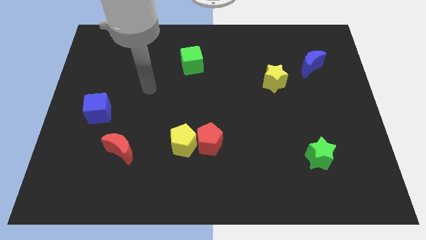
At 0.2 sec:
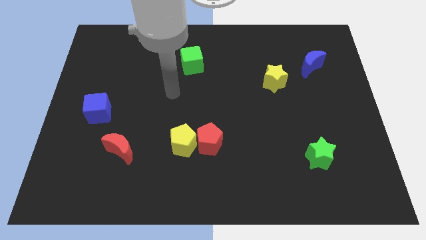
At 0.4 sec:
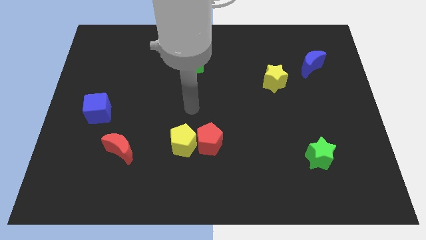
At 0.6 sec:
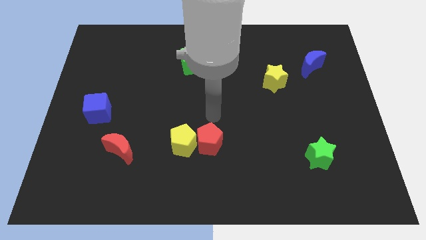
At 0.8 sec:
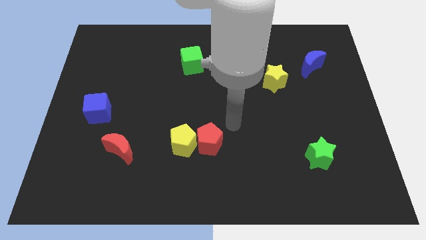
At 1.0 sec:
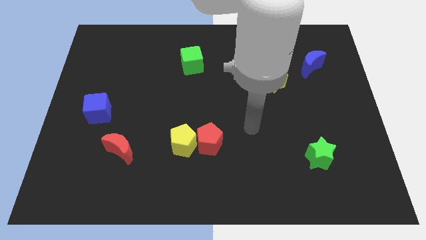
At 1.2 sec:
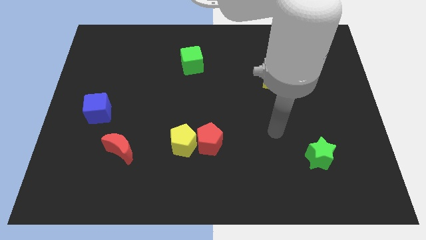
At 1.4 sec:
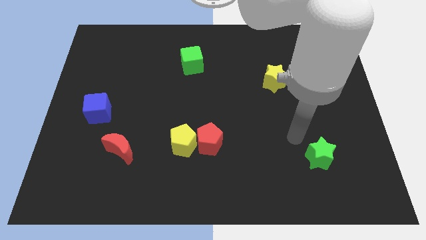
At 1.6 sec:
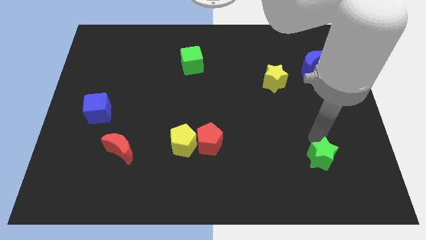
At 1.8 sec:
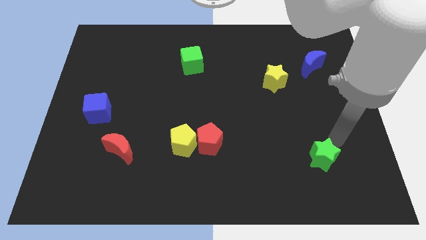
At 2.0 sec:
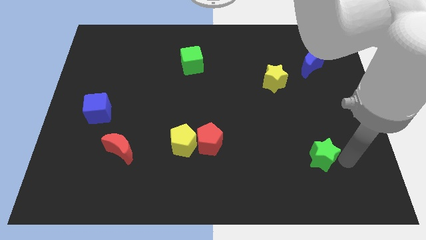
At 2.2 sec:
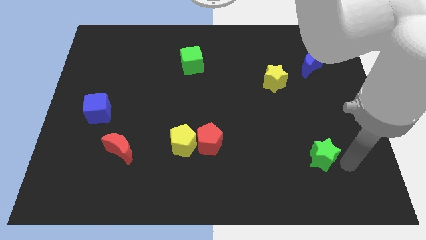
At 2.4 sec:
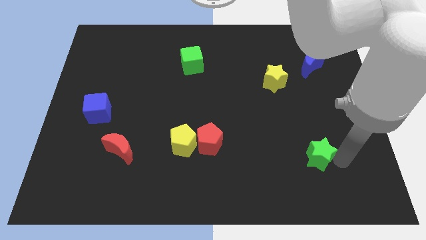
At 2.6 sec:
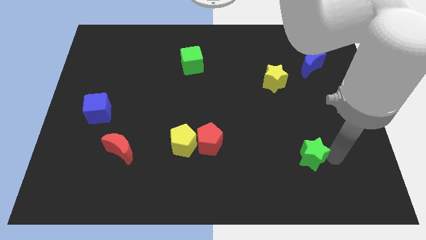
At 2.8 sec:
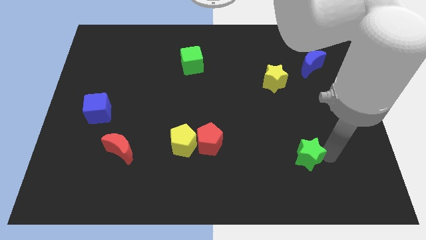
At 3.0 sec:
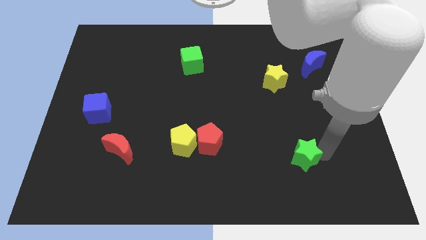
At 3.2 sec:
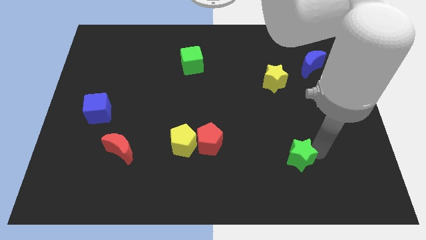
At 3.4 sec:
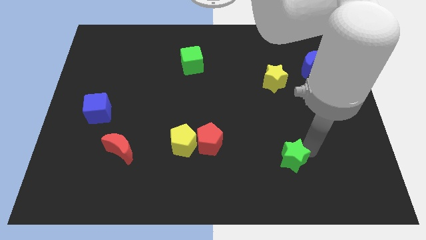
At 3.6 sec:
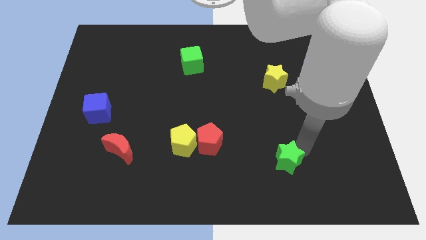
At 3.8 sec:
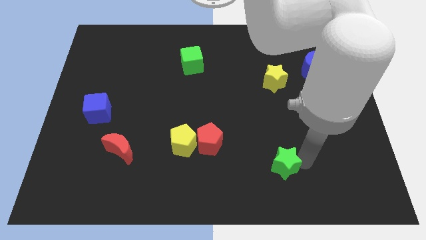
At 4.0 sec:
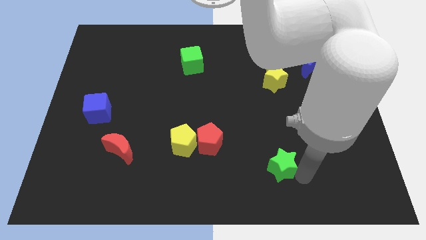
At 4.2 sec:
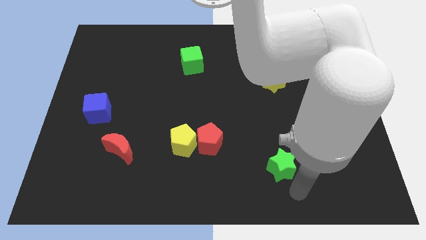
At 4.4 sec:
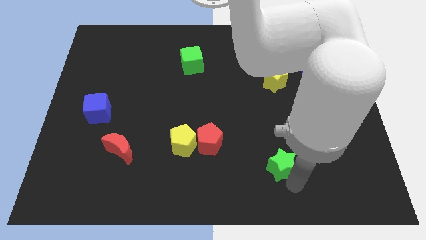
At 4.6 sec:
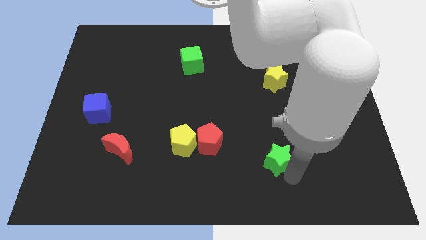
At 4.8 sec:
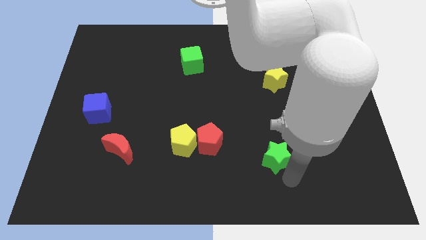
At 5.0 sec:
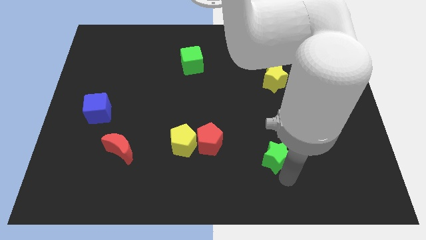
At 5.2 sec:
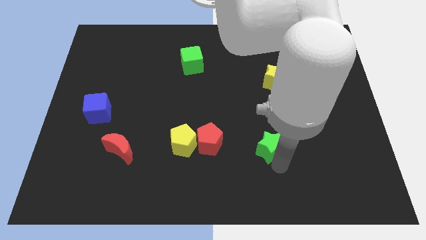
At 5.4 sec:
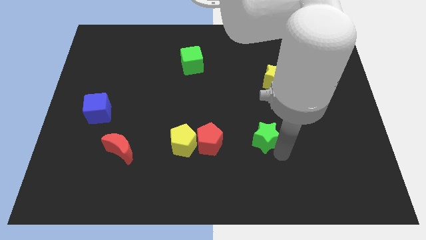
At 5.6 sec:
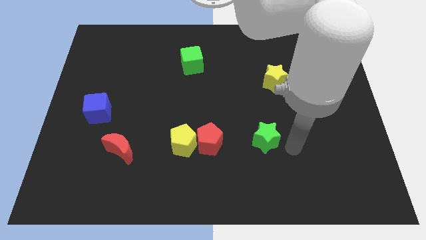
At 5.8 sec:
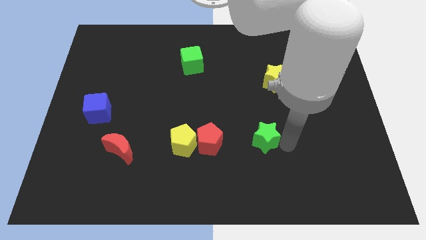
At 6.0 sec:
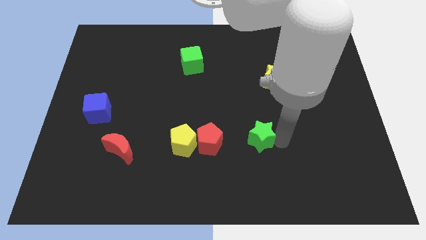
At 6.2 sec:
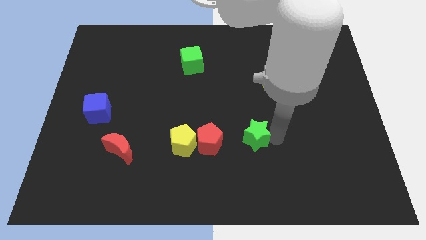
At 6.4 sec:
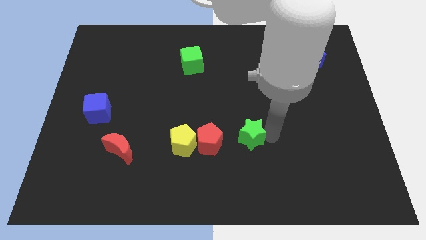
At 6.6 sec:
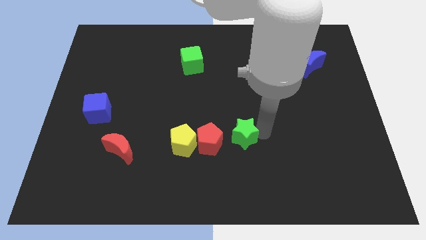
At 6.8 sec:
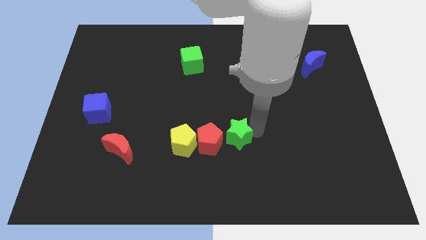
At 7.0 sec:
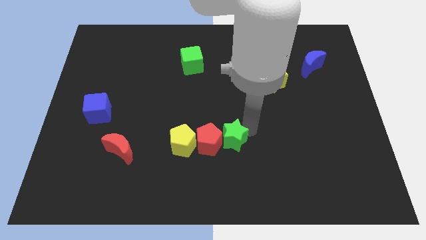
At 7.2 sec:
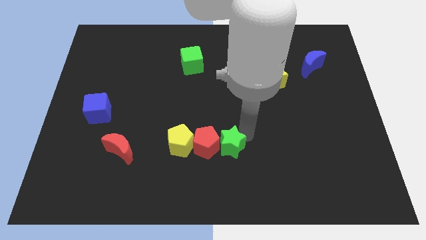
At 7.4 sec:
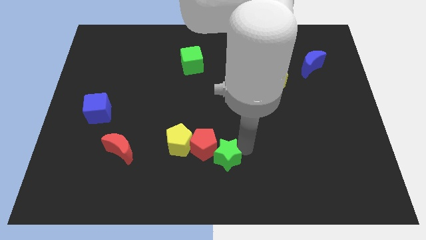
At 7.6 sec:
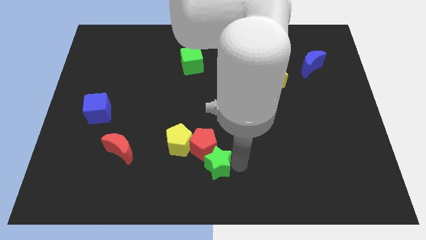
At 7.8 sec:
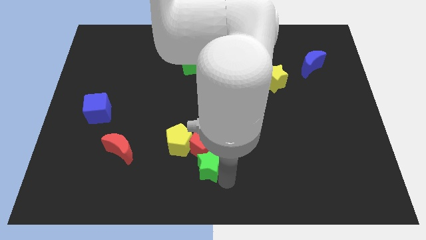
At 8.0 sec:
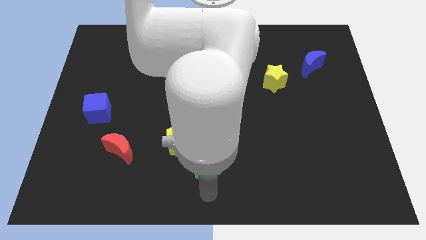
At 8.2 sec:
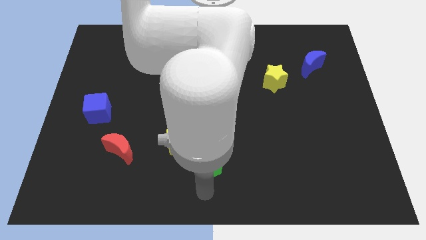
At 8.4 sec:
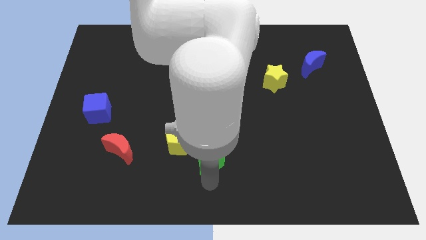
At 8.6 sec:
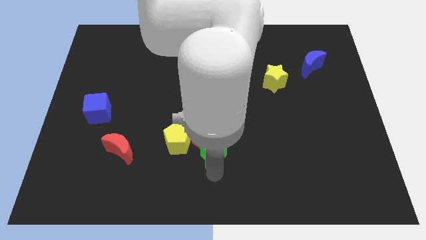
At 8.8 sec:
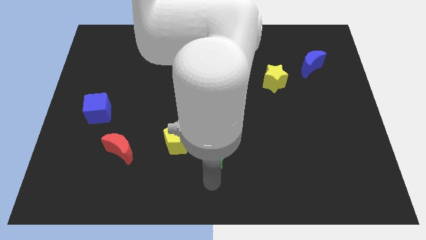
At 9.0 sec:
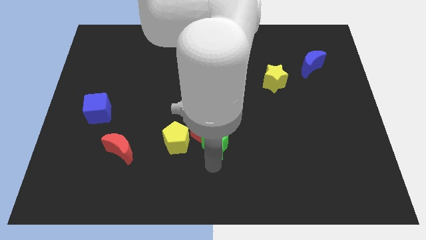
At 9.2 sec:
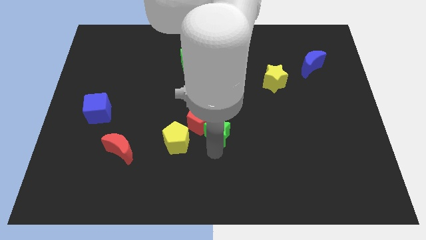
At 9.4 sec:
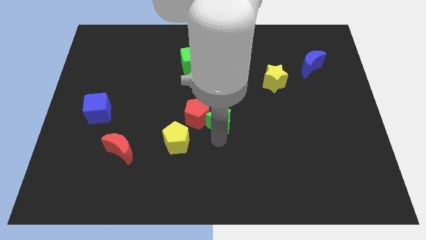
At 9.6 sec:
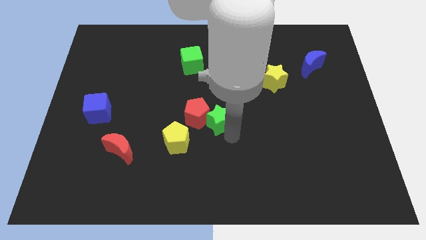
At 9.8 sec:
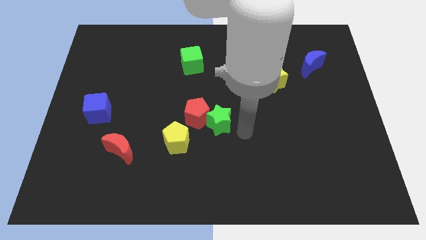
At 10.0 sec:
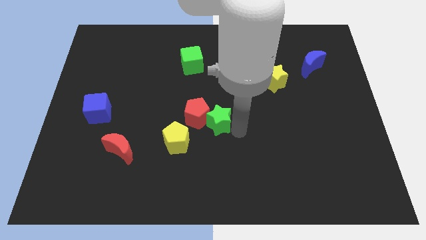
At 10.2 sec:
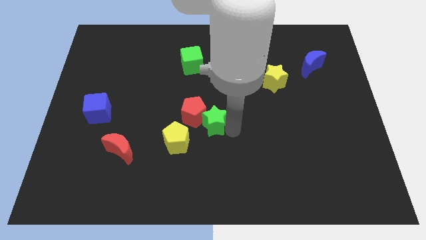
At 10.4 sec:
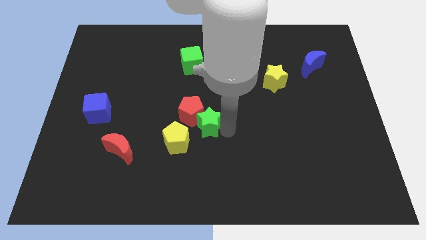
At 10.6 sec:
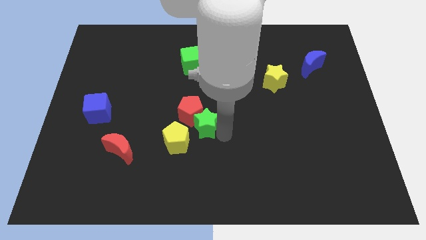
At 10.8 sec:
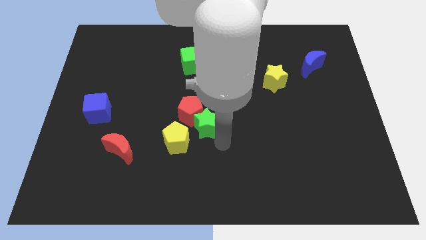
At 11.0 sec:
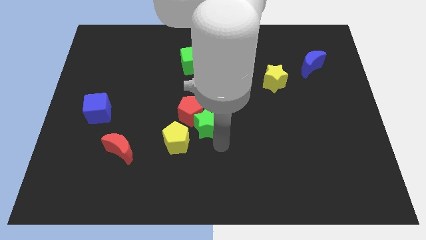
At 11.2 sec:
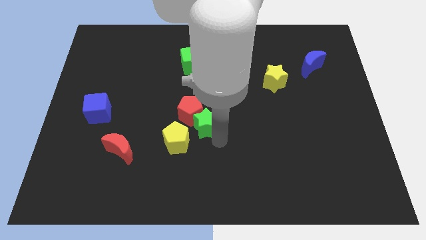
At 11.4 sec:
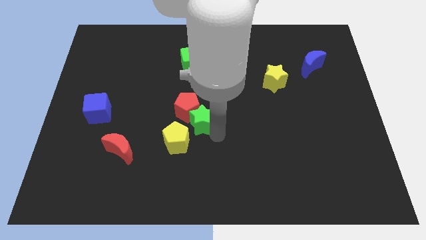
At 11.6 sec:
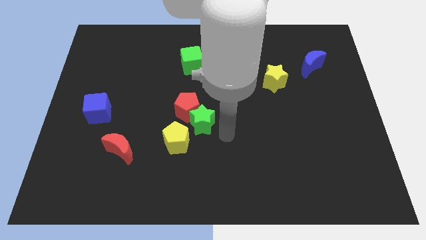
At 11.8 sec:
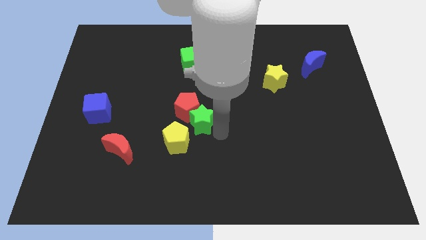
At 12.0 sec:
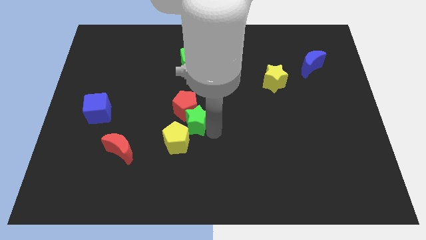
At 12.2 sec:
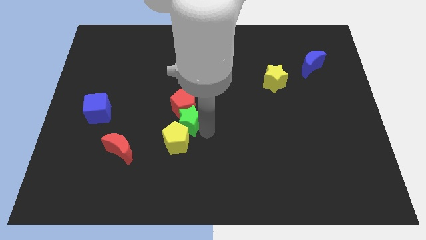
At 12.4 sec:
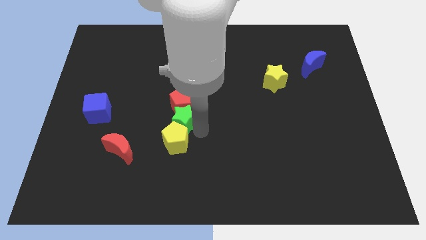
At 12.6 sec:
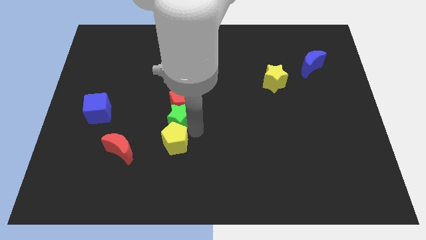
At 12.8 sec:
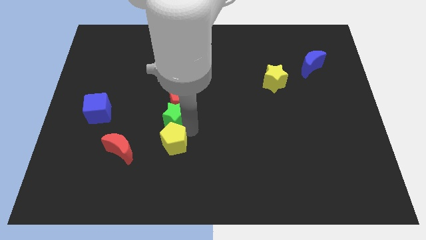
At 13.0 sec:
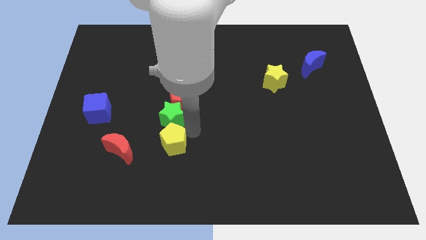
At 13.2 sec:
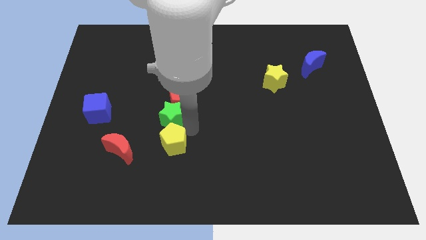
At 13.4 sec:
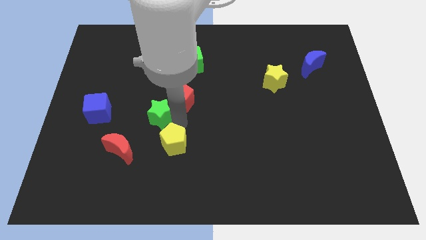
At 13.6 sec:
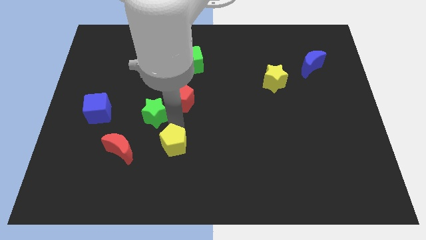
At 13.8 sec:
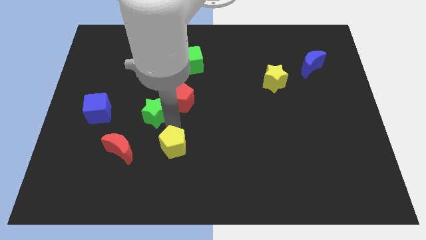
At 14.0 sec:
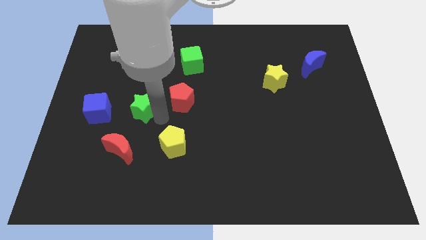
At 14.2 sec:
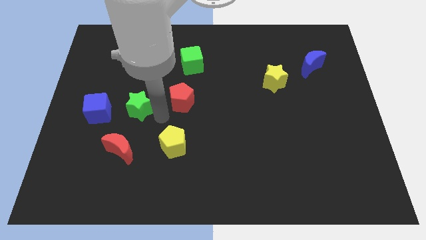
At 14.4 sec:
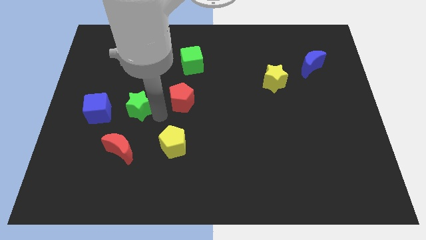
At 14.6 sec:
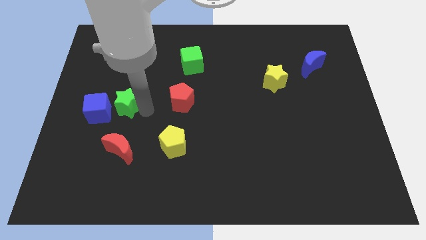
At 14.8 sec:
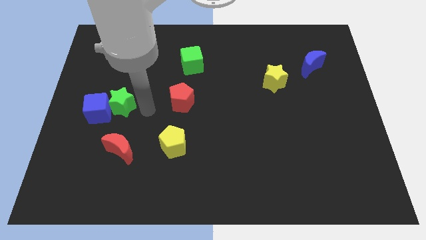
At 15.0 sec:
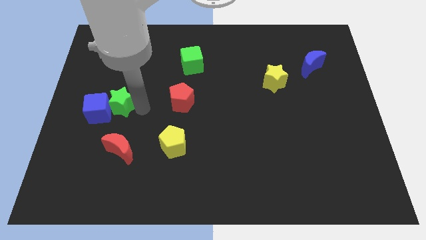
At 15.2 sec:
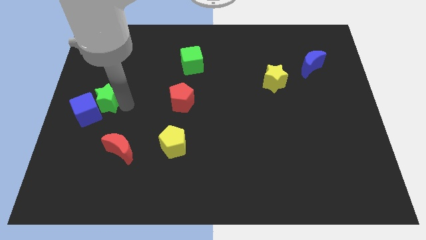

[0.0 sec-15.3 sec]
move the green star to the left side
